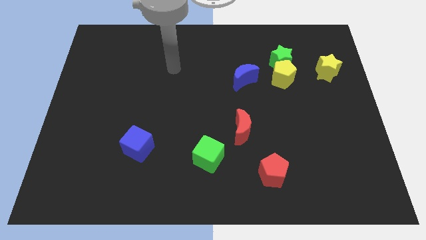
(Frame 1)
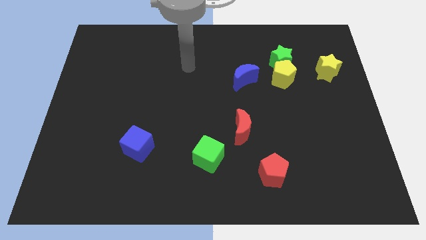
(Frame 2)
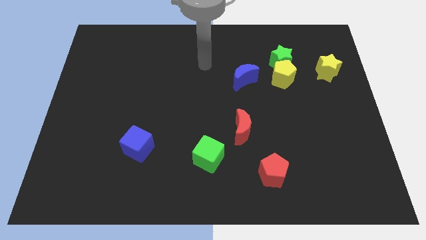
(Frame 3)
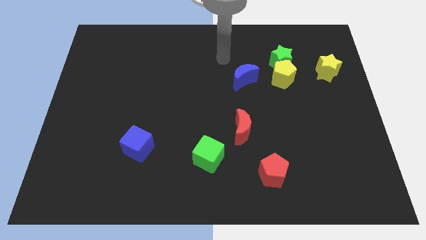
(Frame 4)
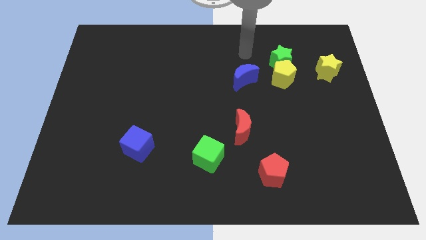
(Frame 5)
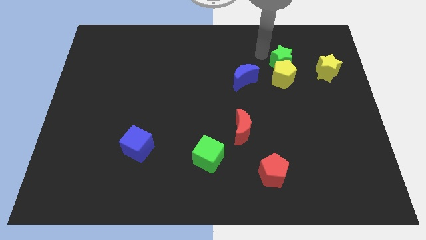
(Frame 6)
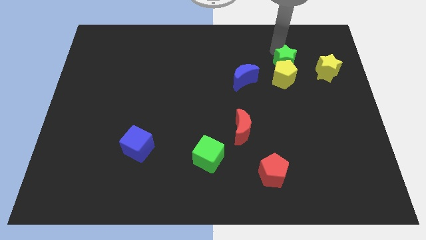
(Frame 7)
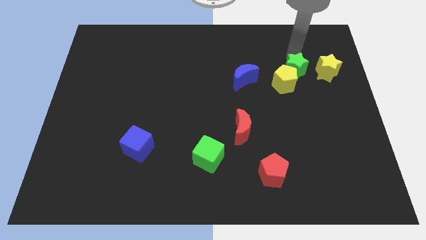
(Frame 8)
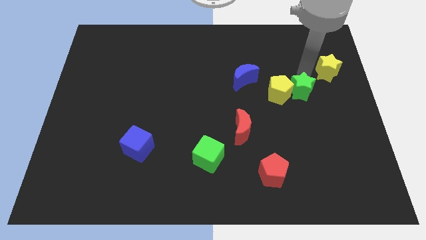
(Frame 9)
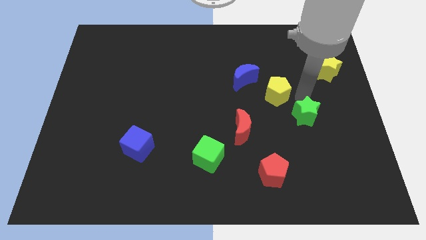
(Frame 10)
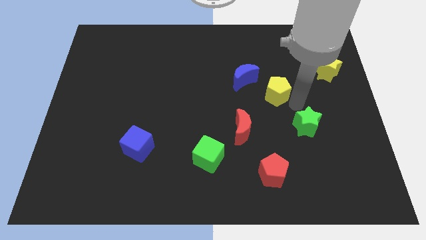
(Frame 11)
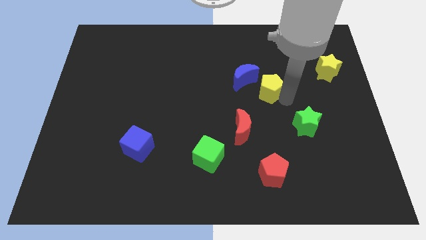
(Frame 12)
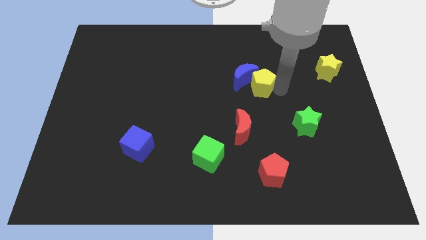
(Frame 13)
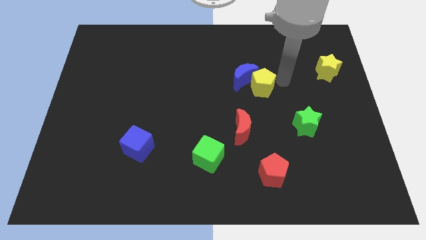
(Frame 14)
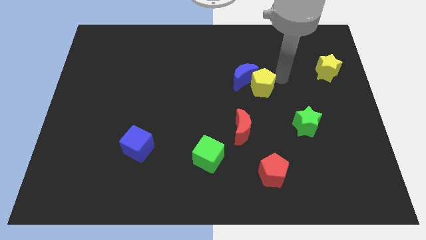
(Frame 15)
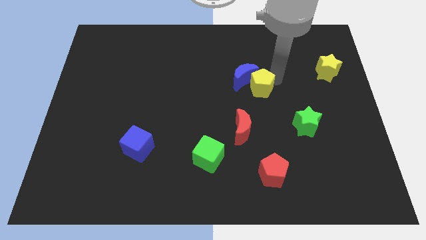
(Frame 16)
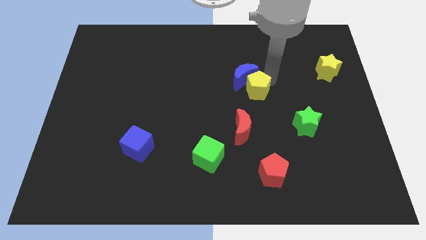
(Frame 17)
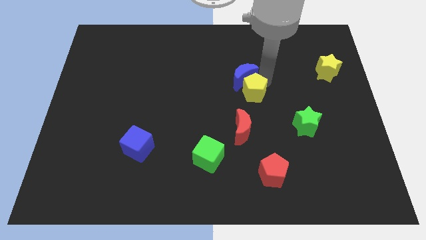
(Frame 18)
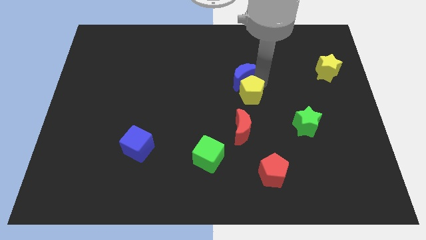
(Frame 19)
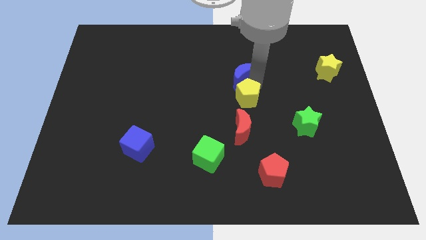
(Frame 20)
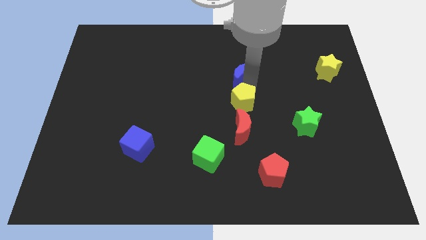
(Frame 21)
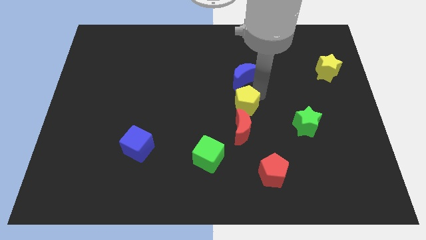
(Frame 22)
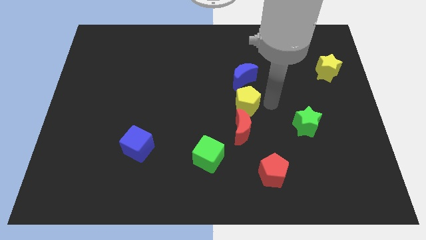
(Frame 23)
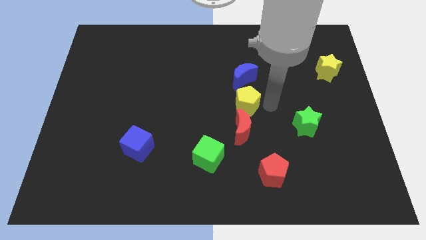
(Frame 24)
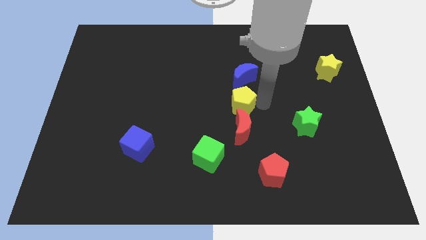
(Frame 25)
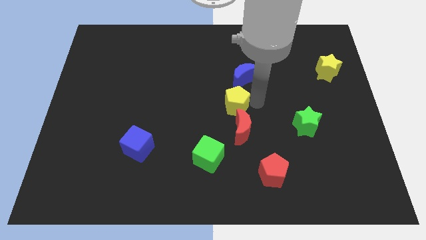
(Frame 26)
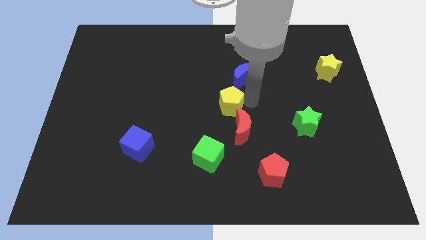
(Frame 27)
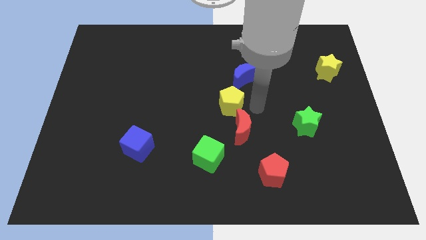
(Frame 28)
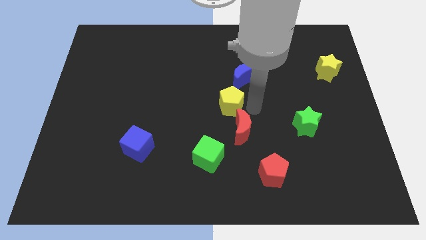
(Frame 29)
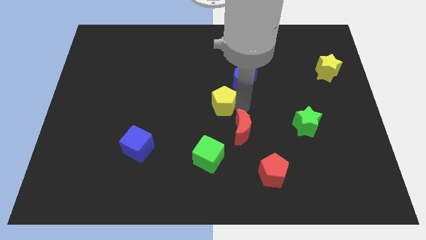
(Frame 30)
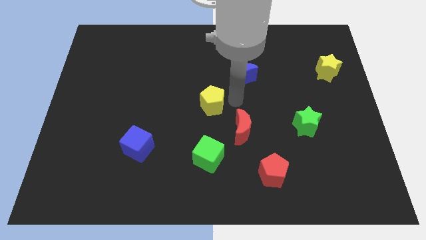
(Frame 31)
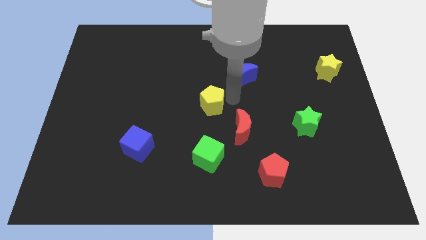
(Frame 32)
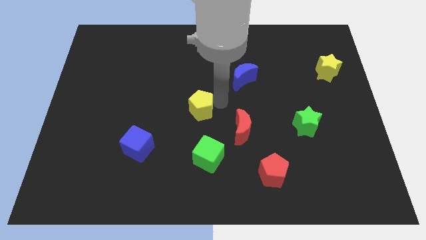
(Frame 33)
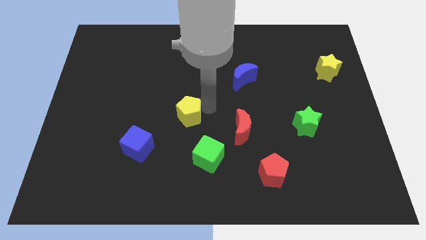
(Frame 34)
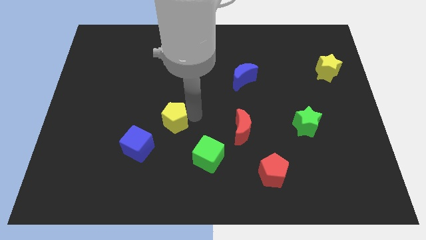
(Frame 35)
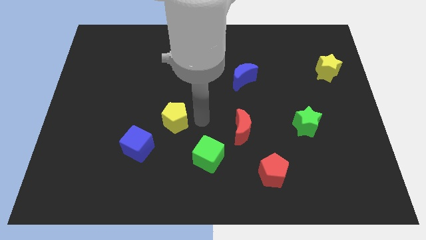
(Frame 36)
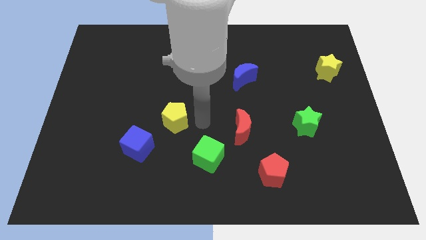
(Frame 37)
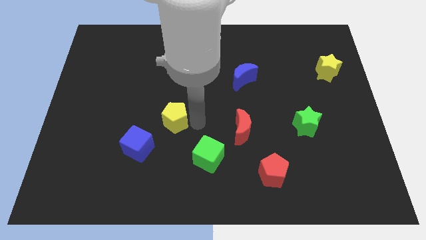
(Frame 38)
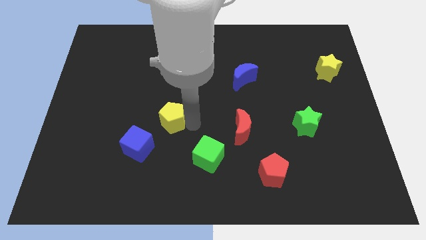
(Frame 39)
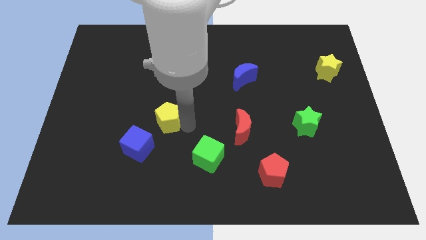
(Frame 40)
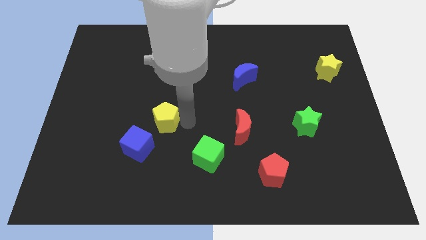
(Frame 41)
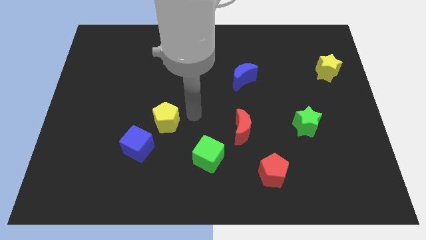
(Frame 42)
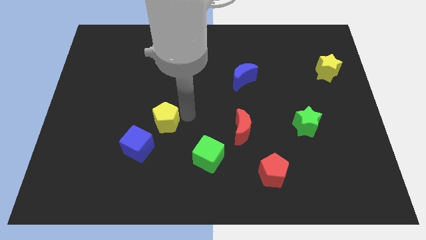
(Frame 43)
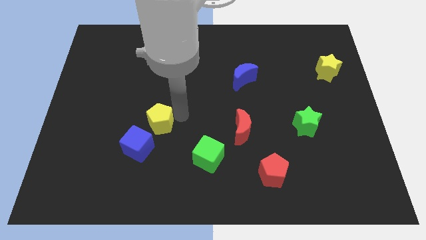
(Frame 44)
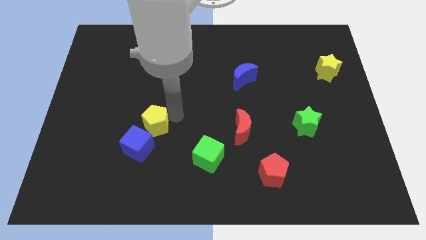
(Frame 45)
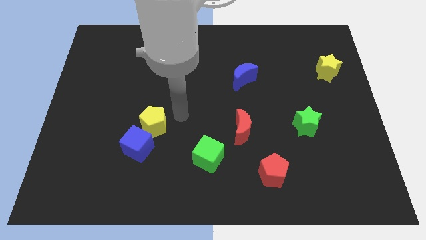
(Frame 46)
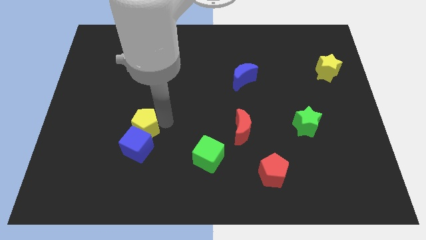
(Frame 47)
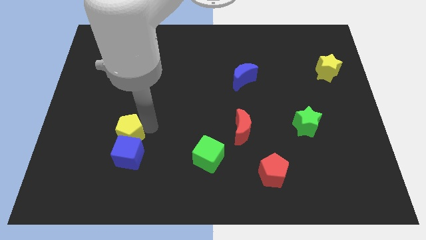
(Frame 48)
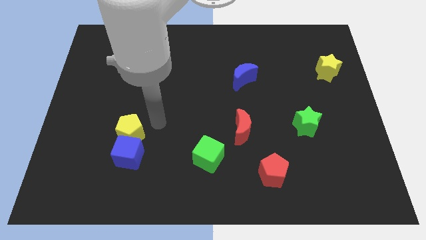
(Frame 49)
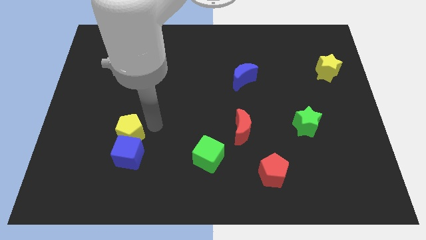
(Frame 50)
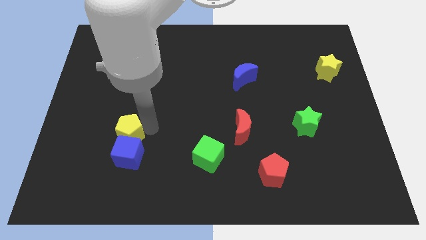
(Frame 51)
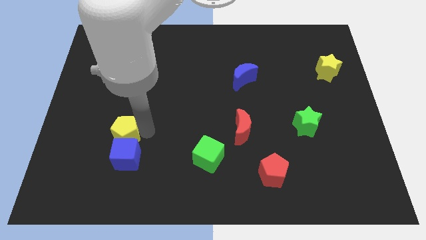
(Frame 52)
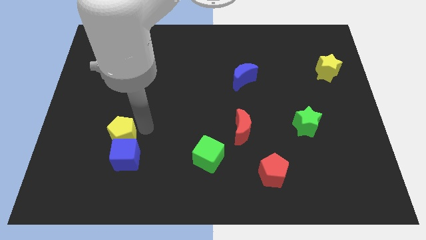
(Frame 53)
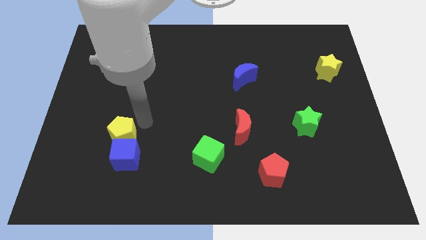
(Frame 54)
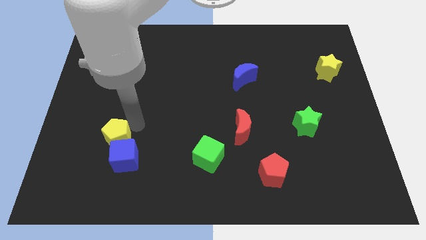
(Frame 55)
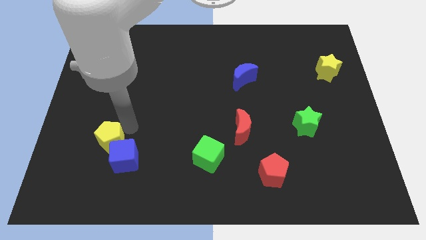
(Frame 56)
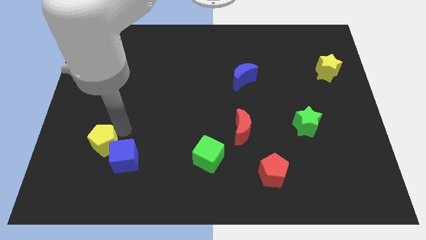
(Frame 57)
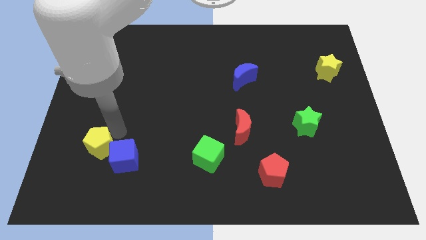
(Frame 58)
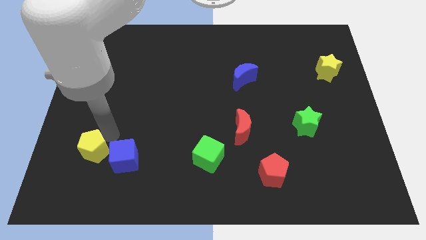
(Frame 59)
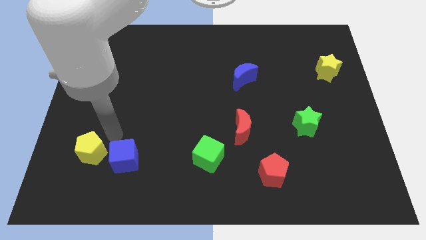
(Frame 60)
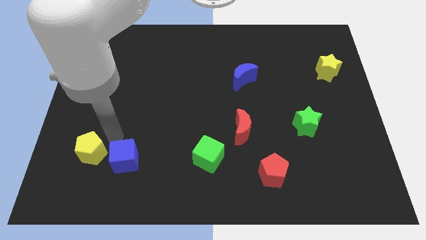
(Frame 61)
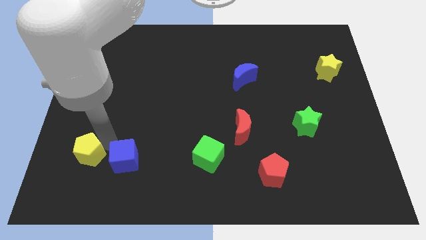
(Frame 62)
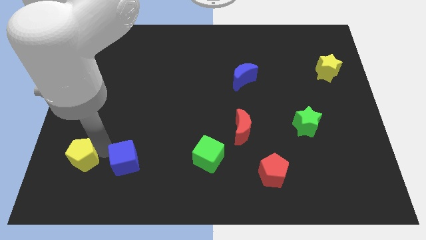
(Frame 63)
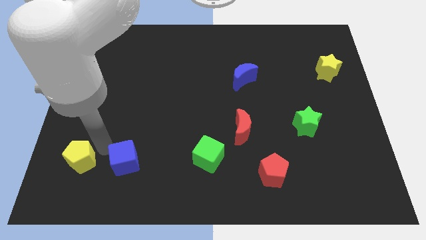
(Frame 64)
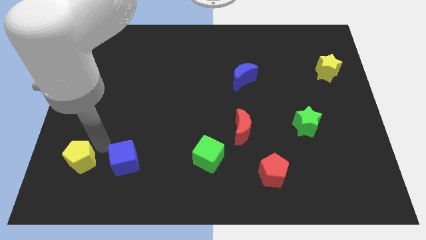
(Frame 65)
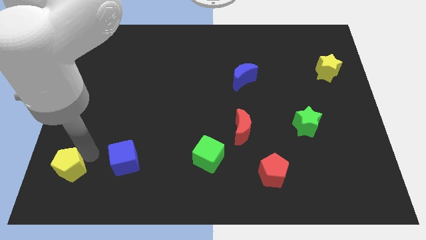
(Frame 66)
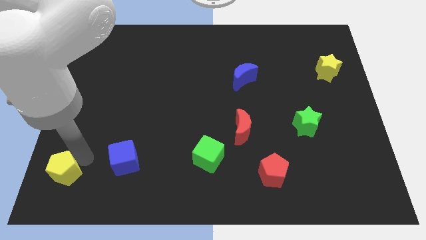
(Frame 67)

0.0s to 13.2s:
put the yellow pentagon to the lower left corner
